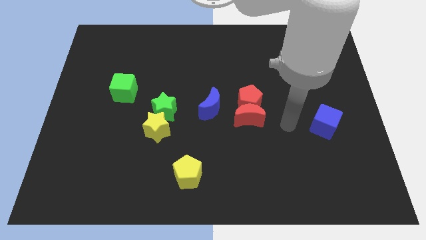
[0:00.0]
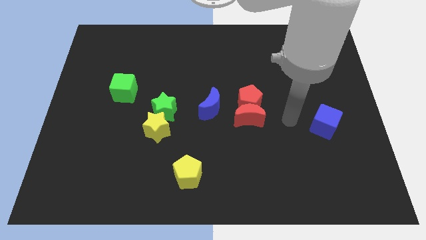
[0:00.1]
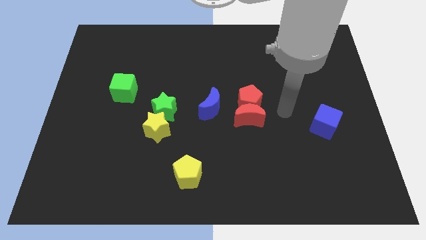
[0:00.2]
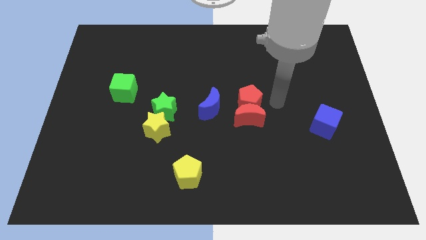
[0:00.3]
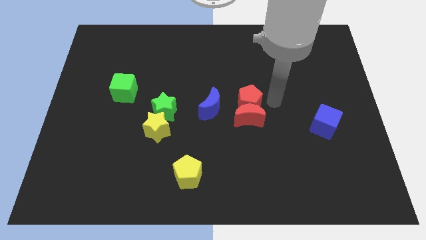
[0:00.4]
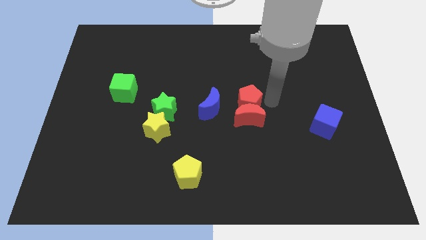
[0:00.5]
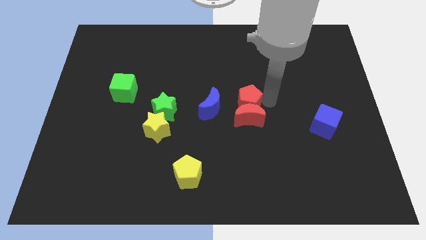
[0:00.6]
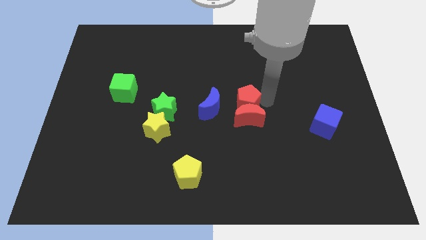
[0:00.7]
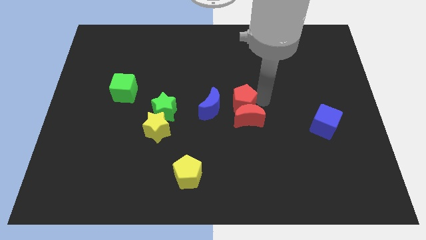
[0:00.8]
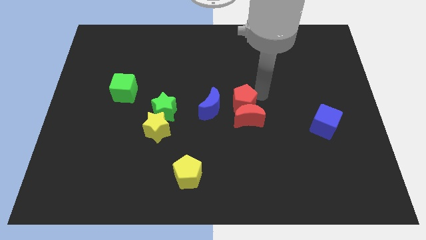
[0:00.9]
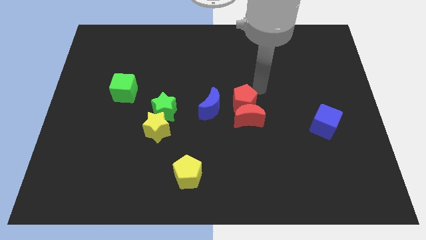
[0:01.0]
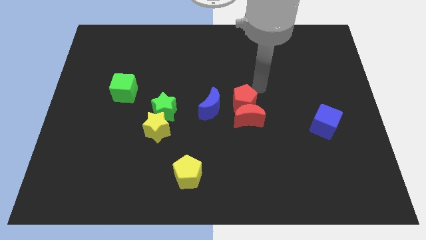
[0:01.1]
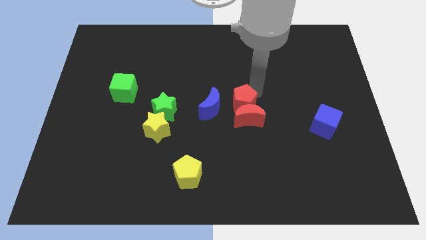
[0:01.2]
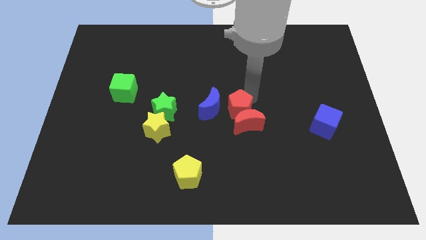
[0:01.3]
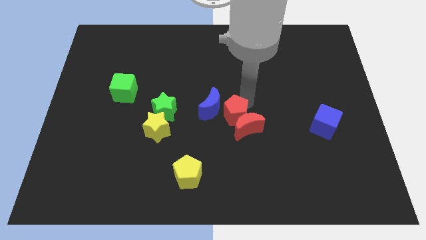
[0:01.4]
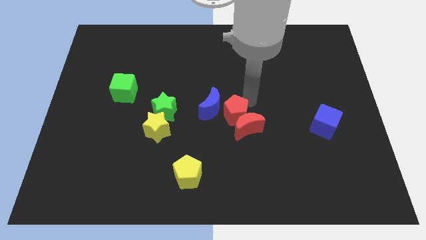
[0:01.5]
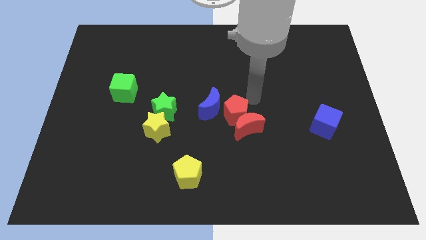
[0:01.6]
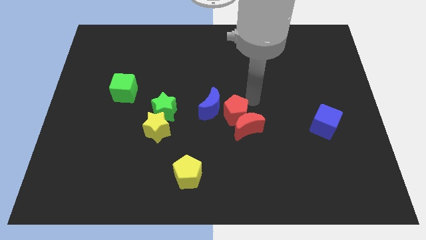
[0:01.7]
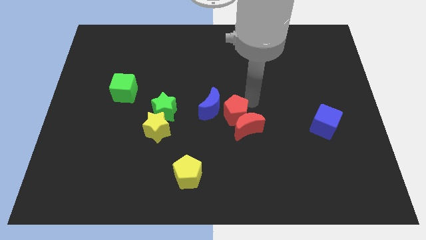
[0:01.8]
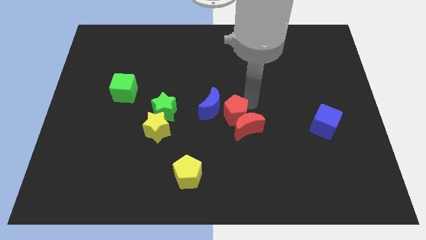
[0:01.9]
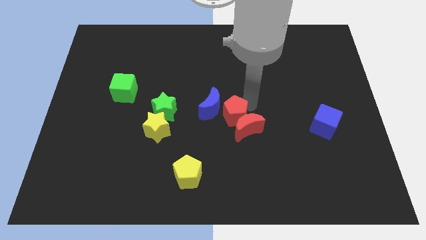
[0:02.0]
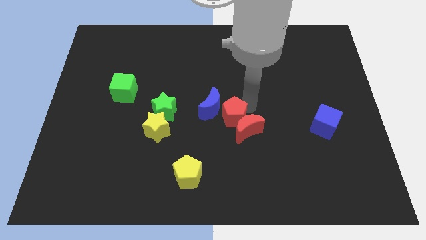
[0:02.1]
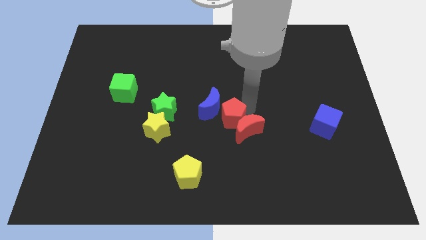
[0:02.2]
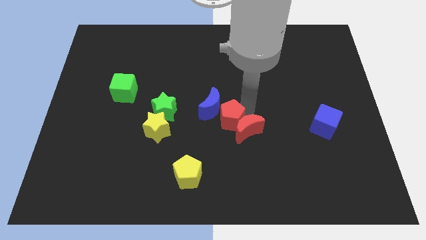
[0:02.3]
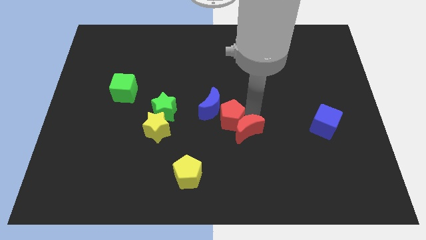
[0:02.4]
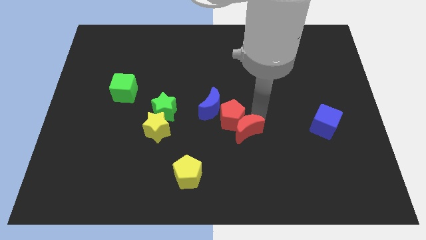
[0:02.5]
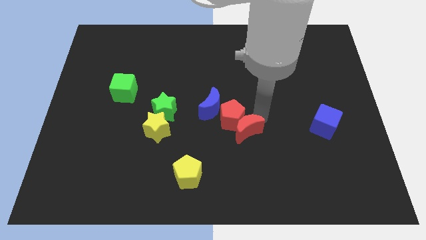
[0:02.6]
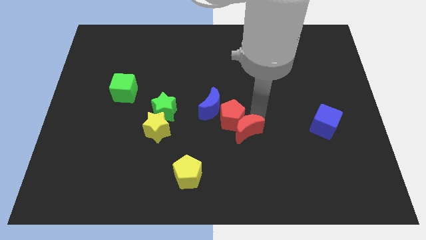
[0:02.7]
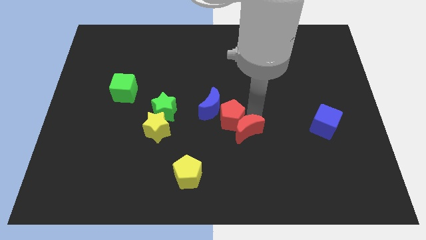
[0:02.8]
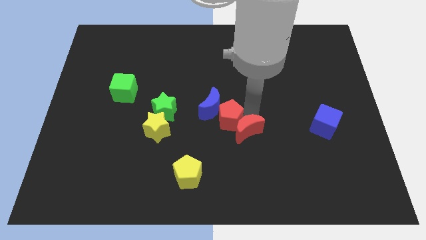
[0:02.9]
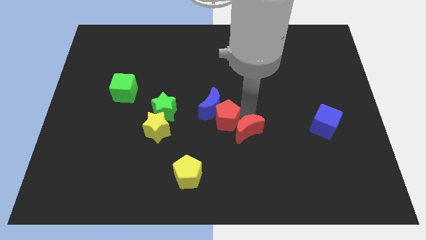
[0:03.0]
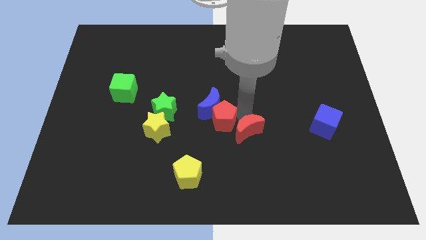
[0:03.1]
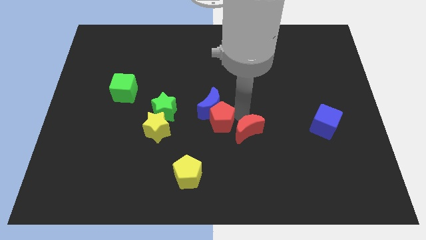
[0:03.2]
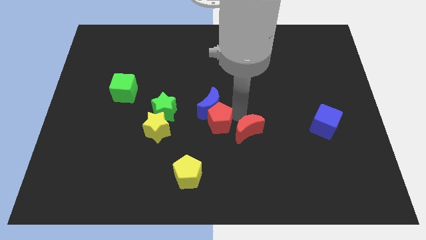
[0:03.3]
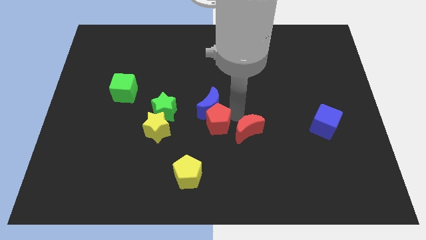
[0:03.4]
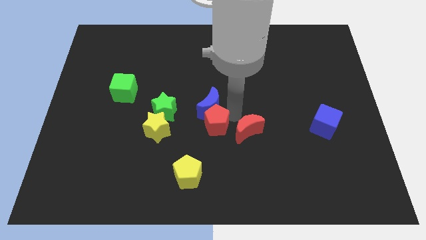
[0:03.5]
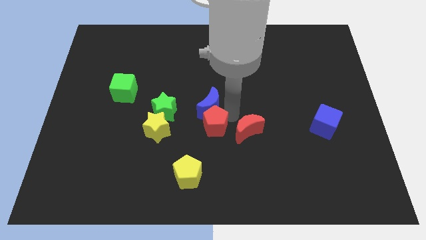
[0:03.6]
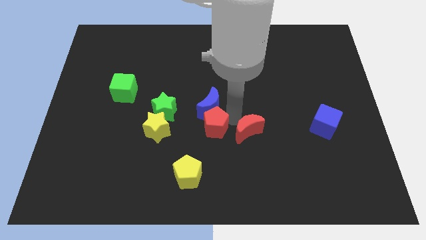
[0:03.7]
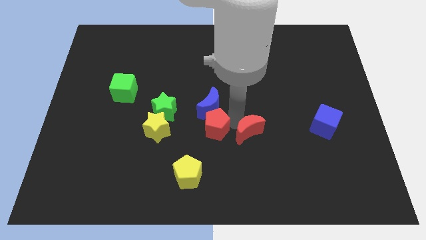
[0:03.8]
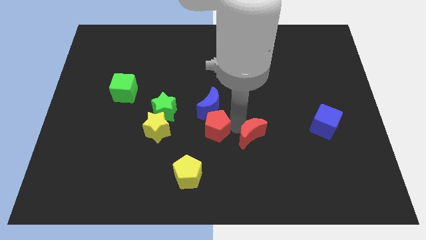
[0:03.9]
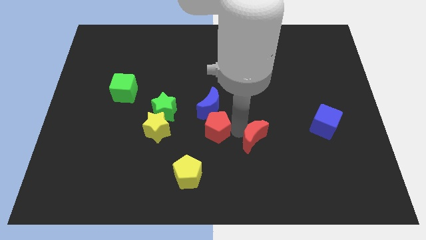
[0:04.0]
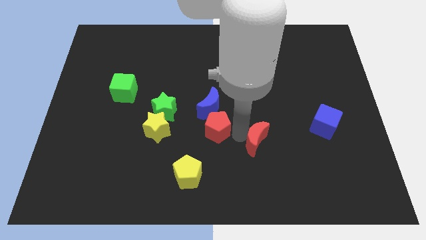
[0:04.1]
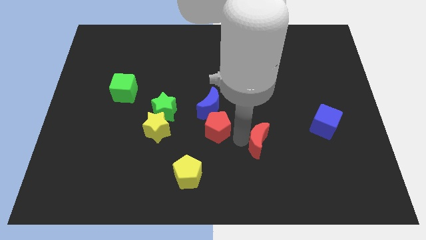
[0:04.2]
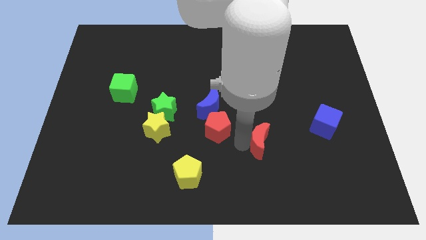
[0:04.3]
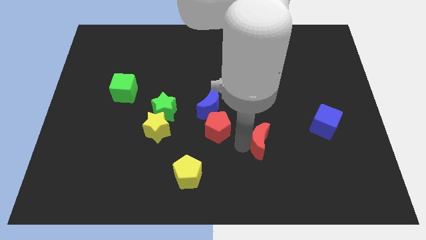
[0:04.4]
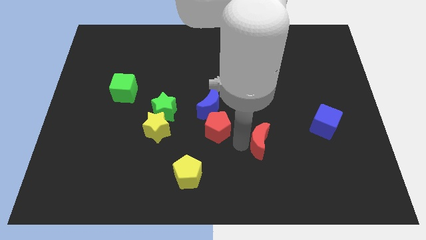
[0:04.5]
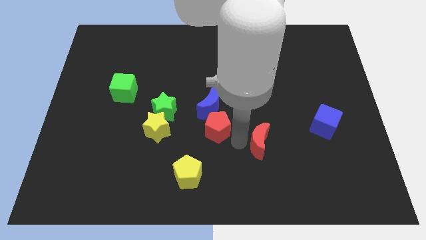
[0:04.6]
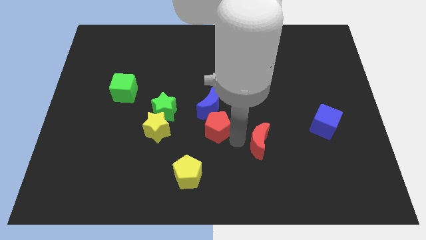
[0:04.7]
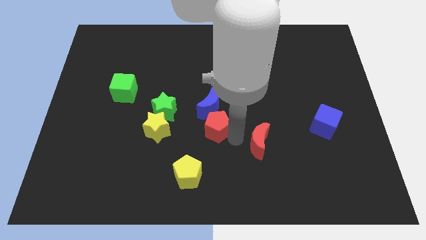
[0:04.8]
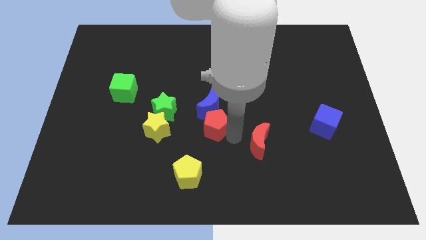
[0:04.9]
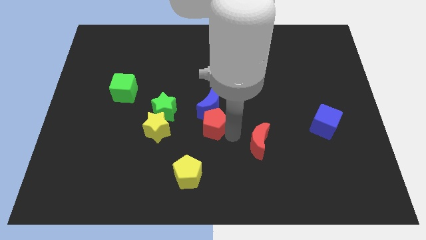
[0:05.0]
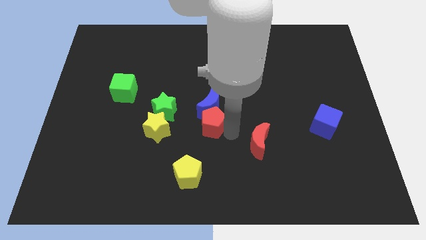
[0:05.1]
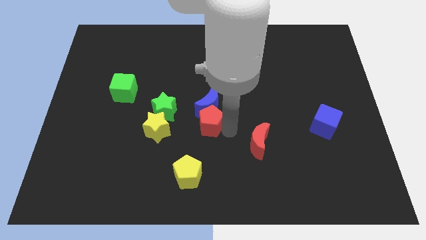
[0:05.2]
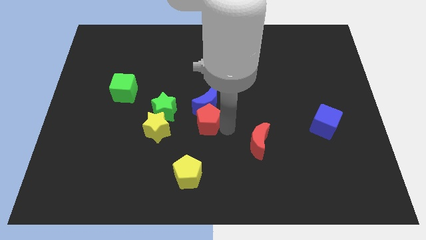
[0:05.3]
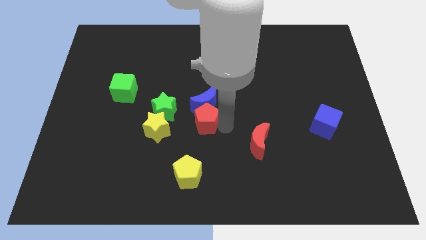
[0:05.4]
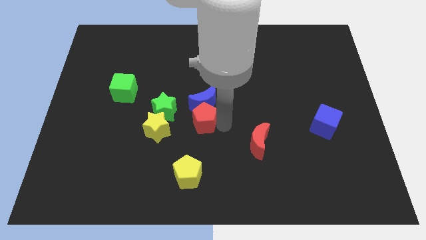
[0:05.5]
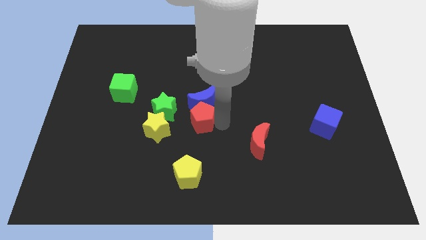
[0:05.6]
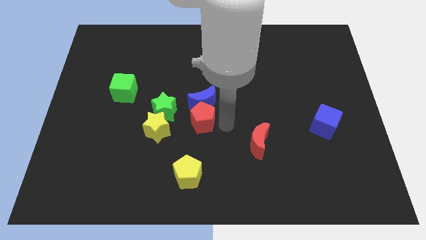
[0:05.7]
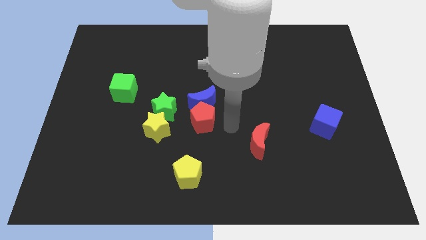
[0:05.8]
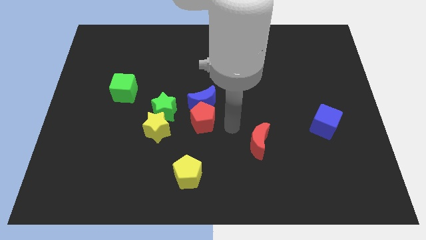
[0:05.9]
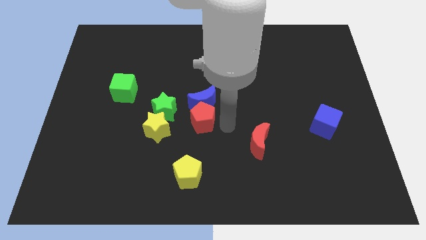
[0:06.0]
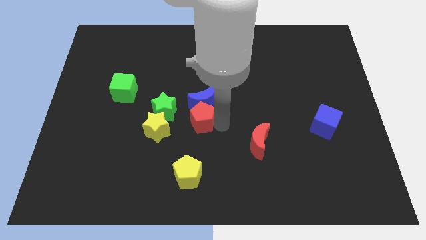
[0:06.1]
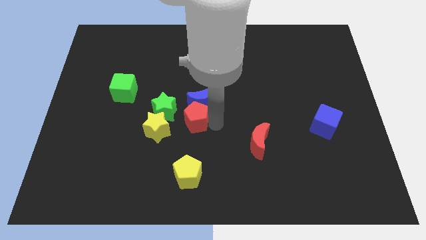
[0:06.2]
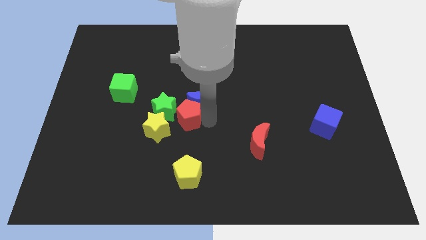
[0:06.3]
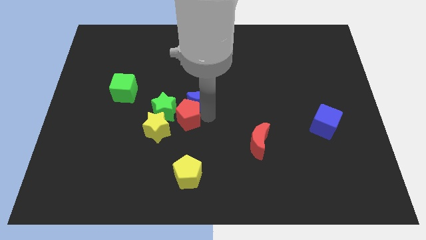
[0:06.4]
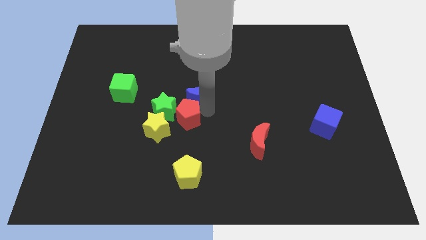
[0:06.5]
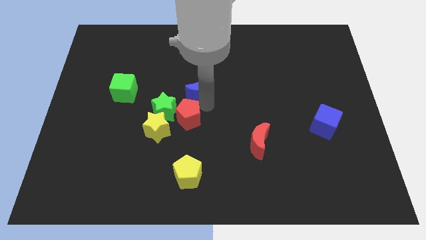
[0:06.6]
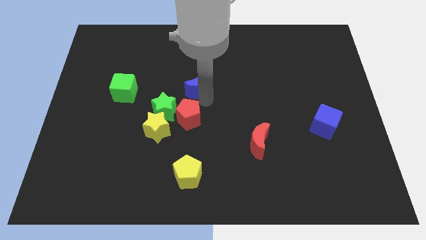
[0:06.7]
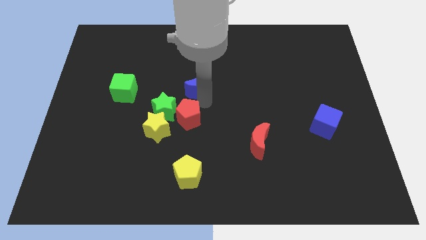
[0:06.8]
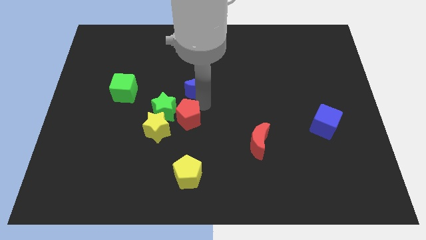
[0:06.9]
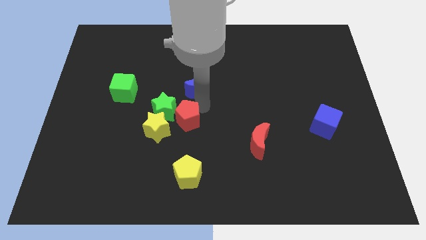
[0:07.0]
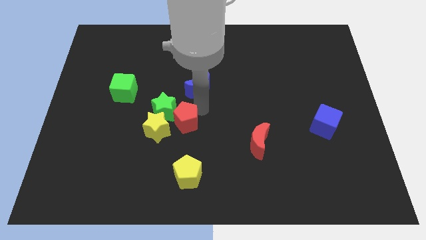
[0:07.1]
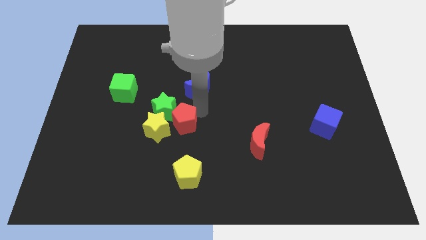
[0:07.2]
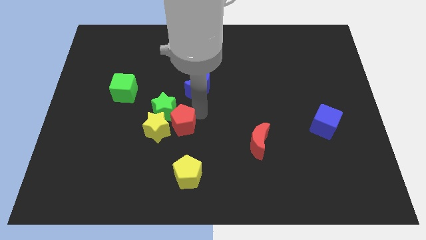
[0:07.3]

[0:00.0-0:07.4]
push the red pentagon towards the yellow star
